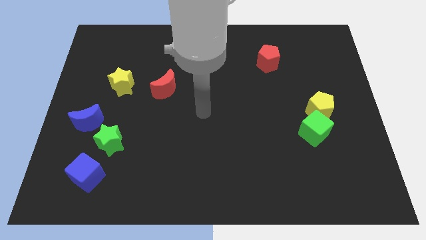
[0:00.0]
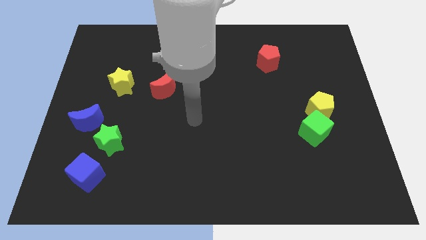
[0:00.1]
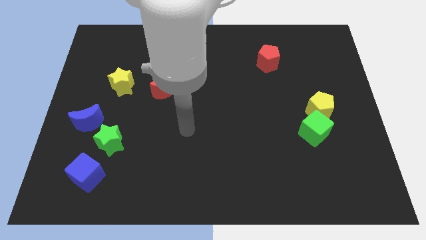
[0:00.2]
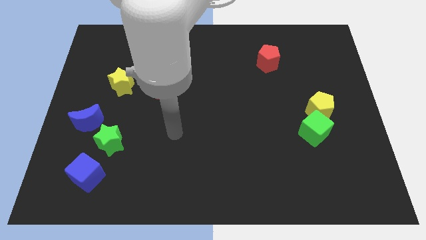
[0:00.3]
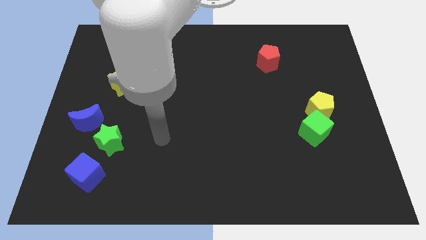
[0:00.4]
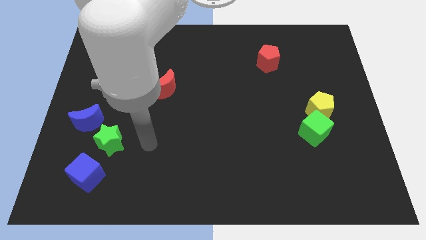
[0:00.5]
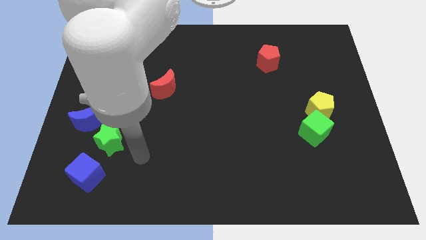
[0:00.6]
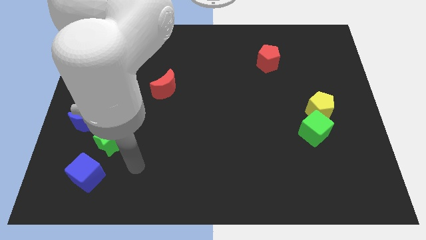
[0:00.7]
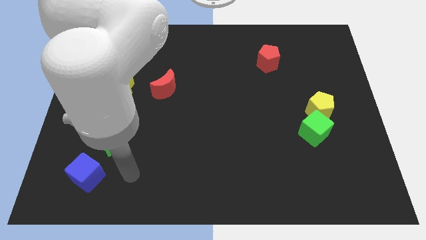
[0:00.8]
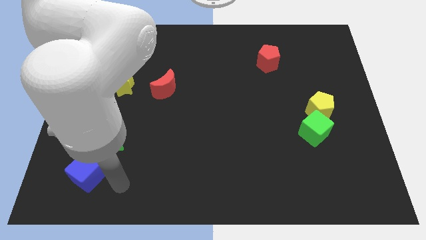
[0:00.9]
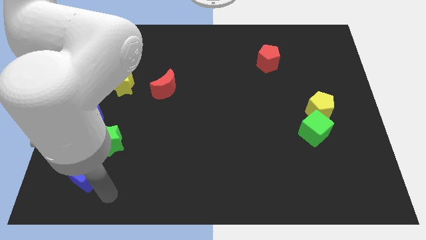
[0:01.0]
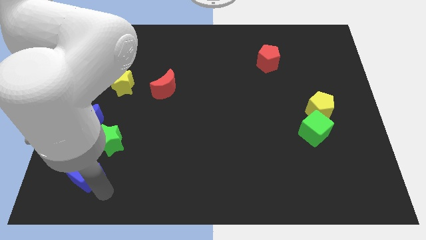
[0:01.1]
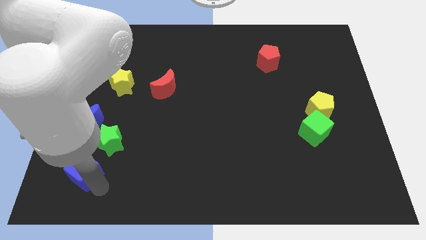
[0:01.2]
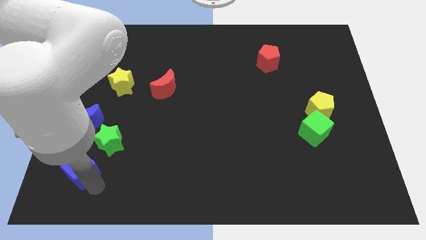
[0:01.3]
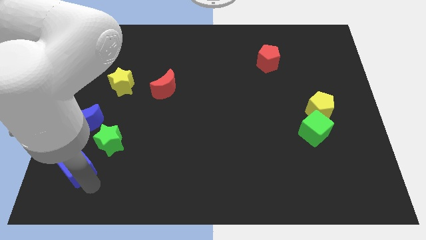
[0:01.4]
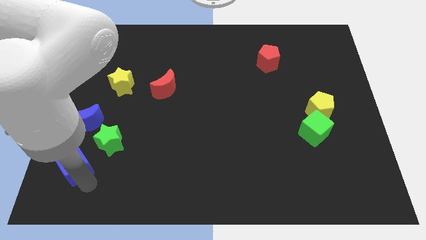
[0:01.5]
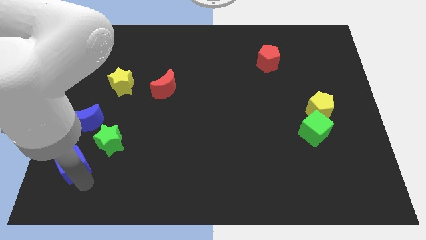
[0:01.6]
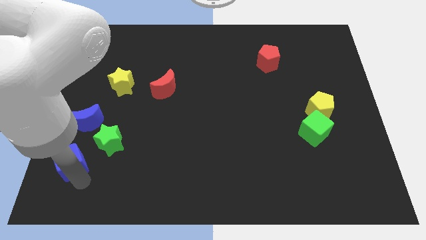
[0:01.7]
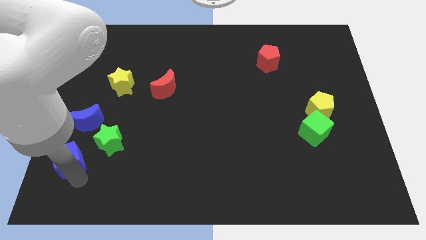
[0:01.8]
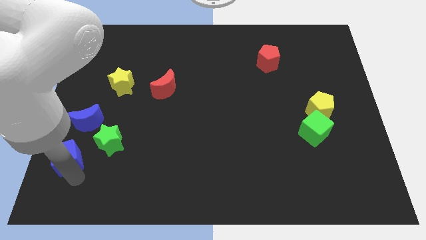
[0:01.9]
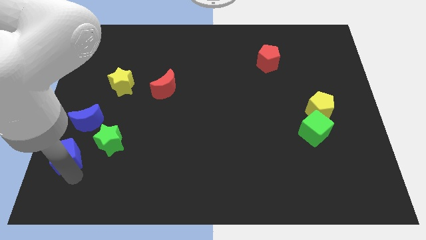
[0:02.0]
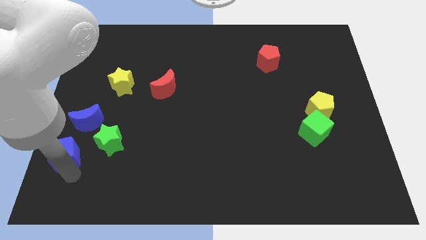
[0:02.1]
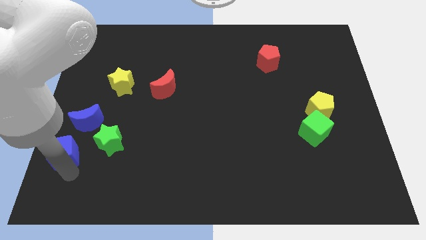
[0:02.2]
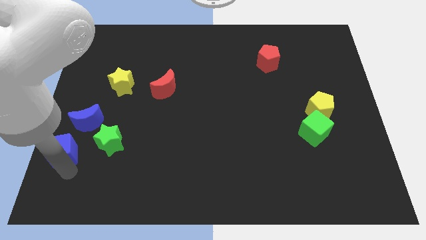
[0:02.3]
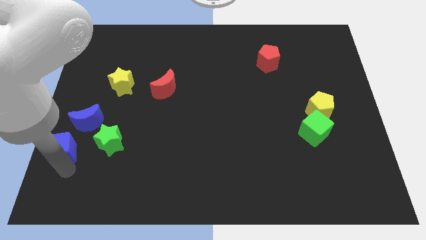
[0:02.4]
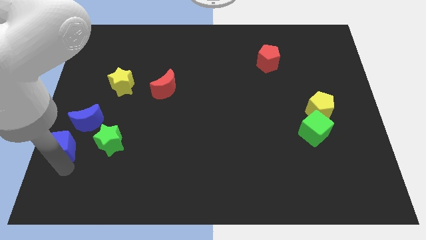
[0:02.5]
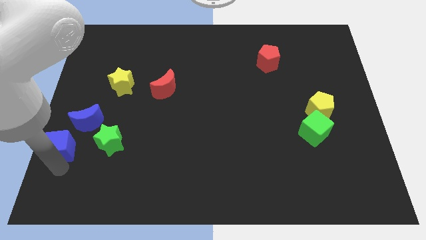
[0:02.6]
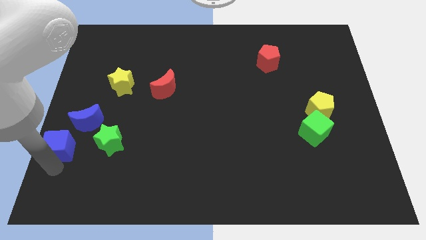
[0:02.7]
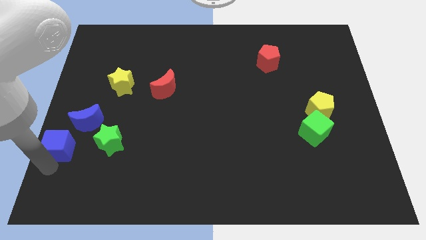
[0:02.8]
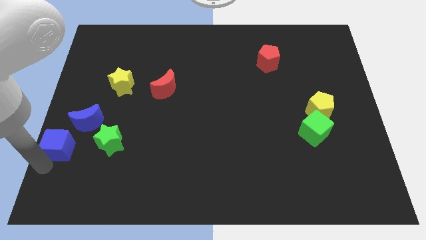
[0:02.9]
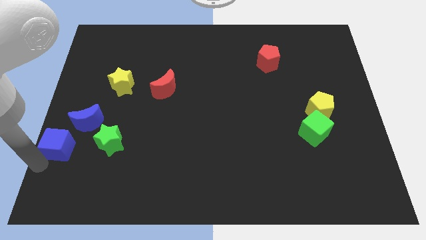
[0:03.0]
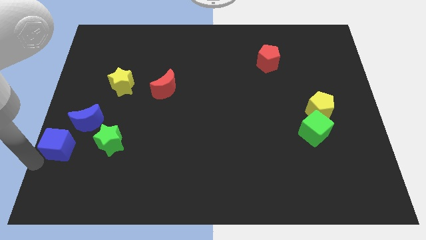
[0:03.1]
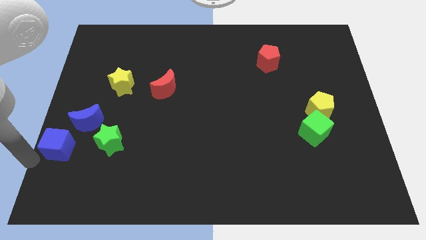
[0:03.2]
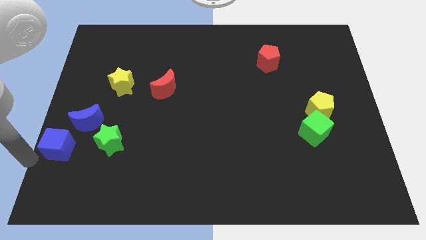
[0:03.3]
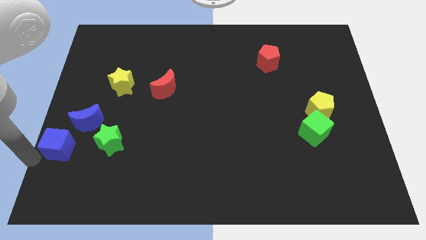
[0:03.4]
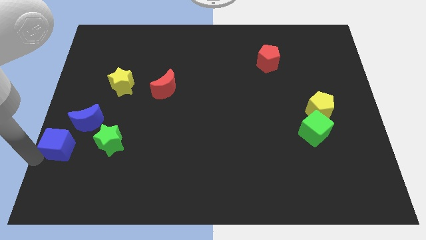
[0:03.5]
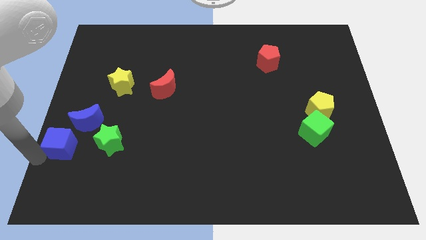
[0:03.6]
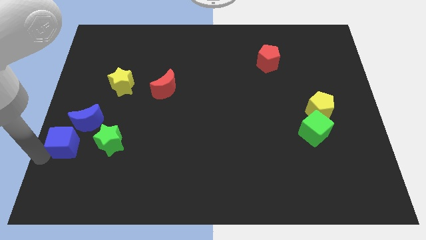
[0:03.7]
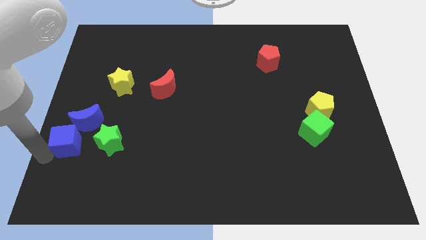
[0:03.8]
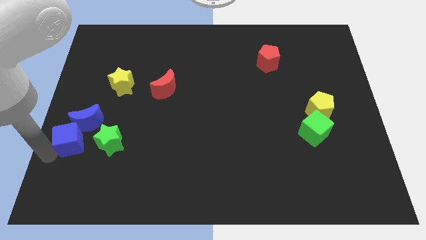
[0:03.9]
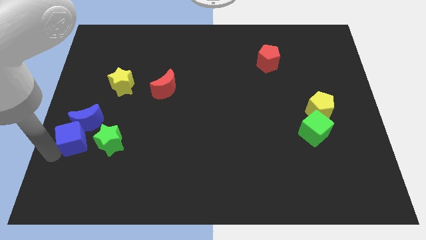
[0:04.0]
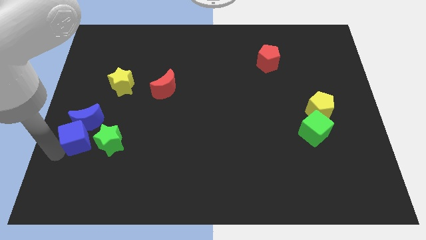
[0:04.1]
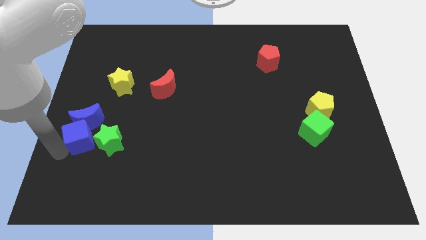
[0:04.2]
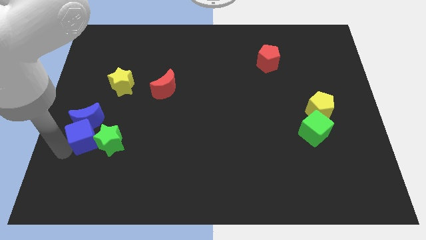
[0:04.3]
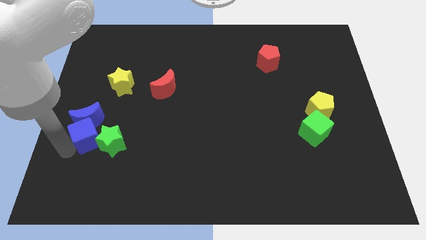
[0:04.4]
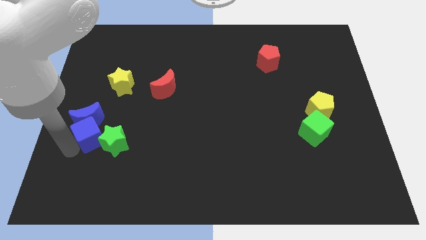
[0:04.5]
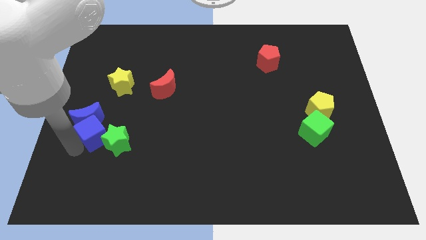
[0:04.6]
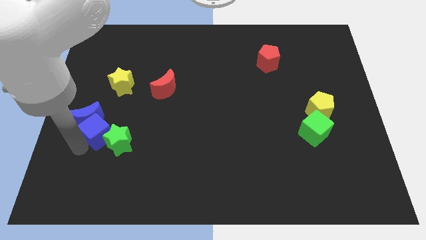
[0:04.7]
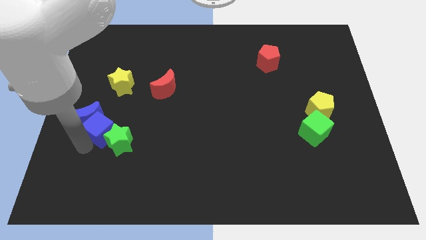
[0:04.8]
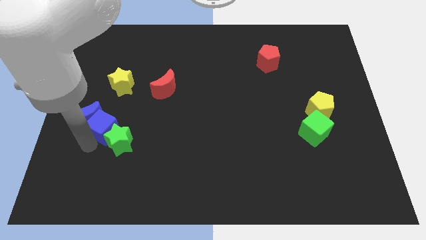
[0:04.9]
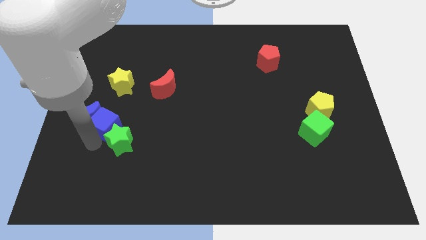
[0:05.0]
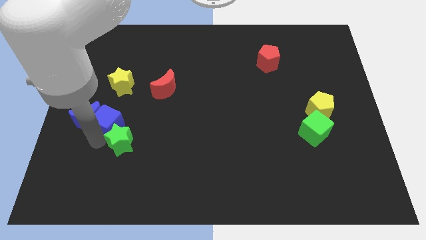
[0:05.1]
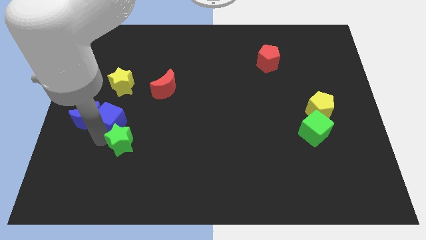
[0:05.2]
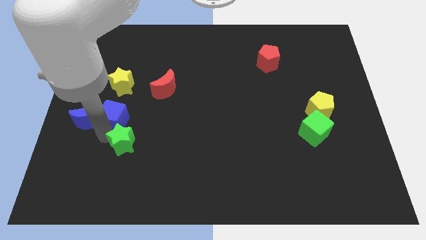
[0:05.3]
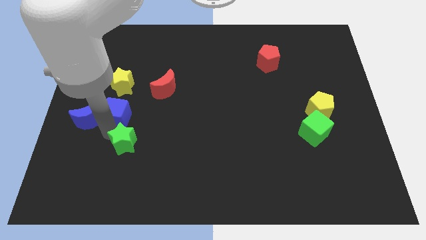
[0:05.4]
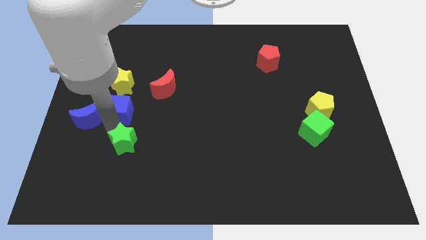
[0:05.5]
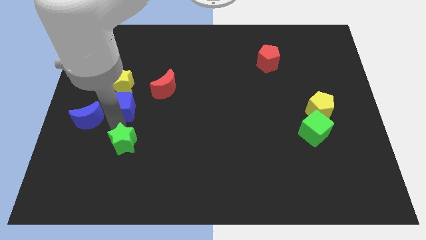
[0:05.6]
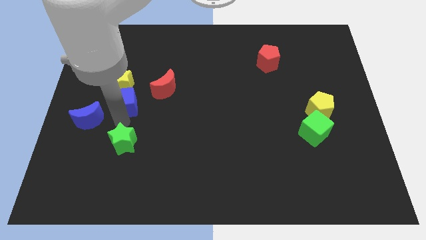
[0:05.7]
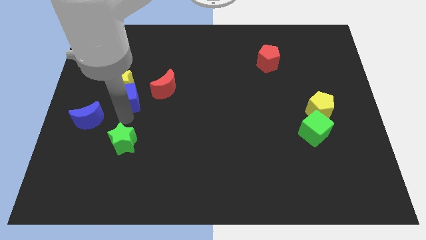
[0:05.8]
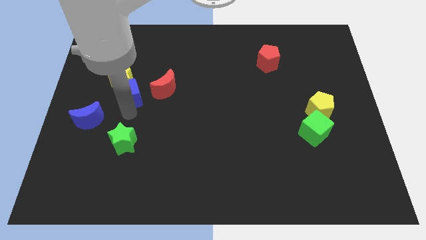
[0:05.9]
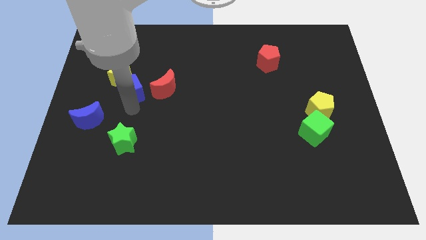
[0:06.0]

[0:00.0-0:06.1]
slide the blue cube up

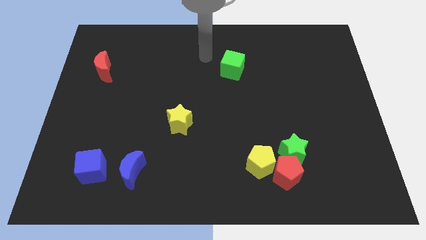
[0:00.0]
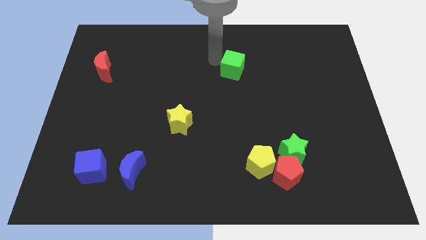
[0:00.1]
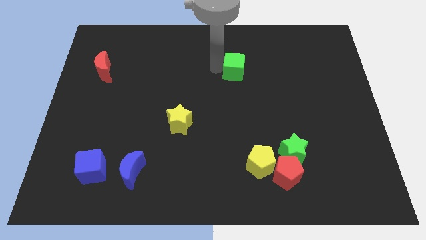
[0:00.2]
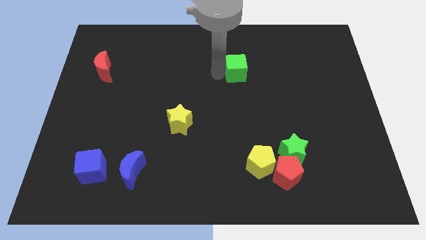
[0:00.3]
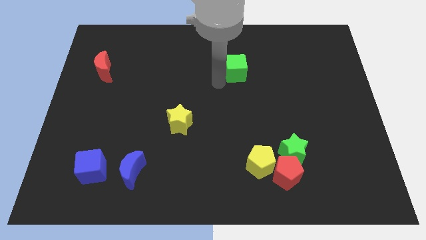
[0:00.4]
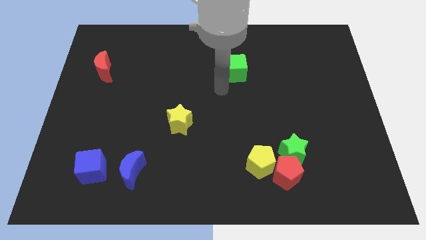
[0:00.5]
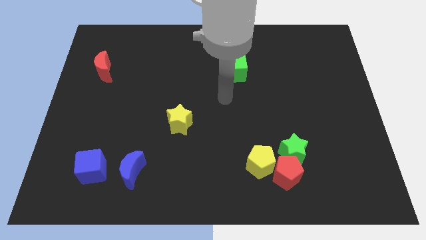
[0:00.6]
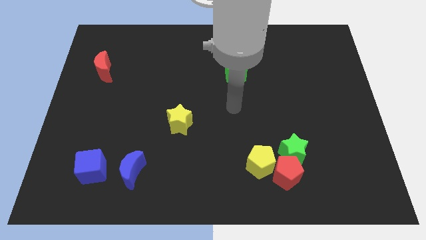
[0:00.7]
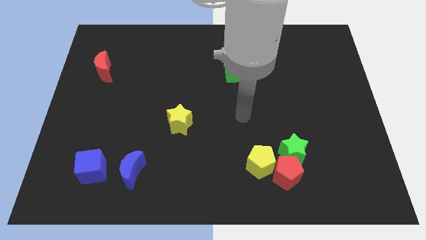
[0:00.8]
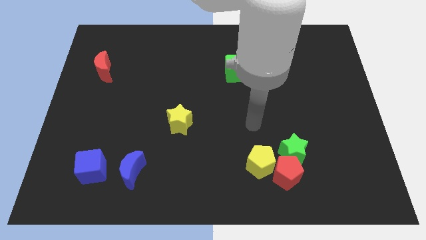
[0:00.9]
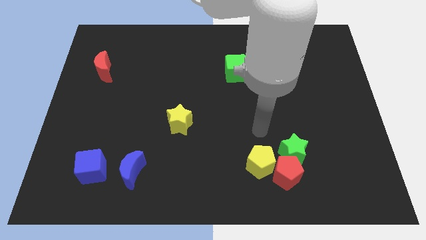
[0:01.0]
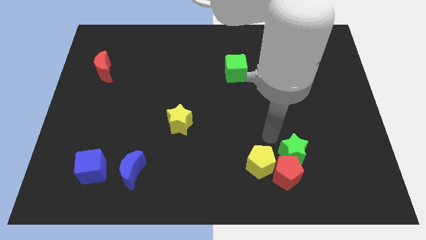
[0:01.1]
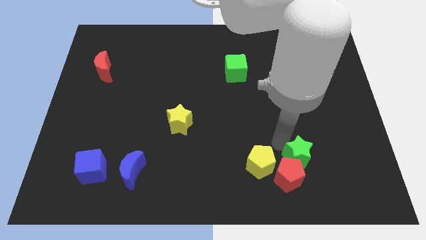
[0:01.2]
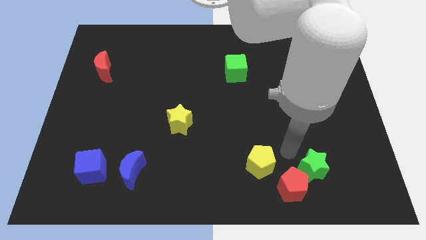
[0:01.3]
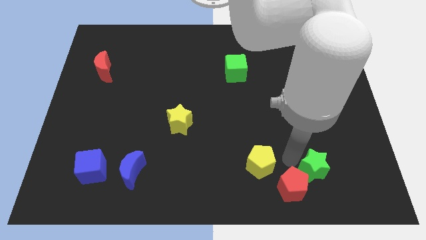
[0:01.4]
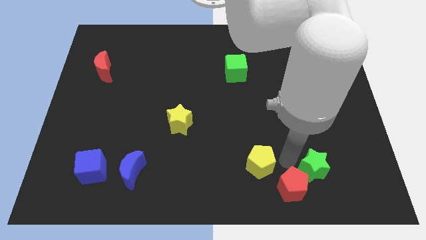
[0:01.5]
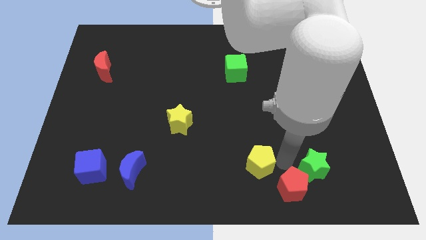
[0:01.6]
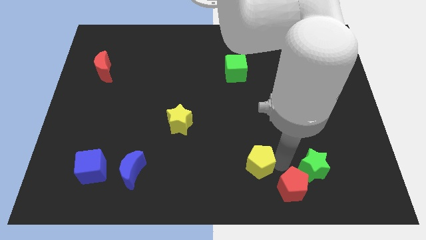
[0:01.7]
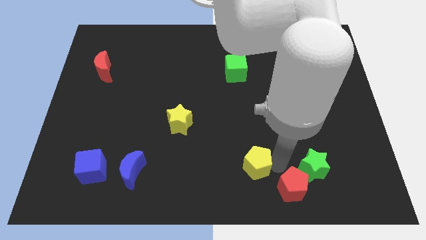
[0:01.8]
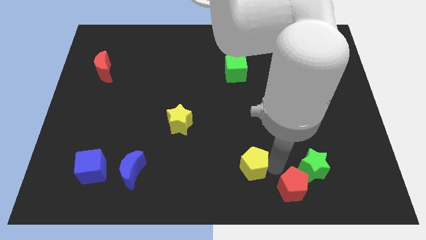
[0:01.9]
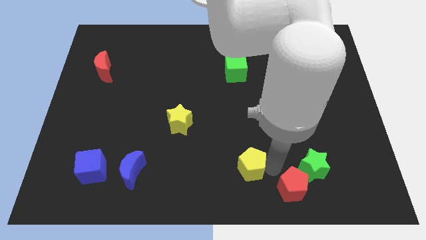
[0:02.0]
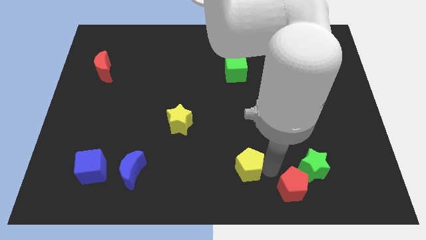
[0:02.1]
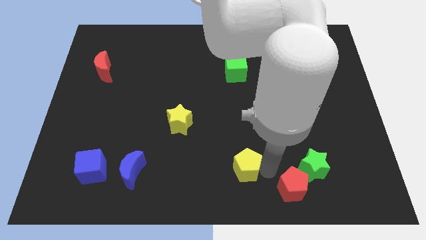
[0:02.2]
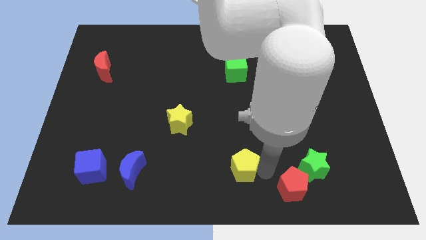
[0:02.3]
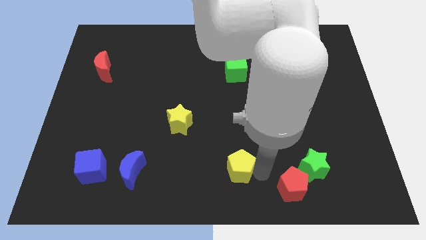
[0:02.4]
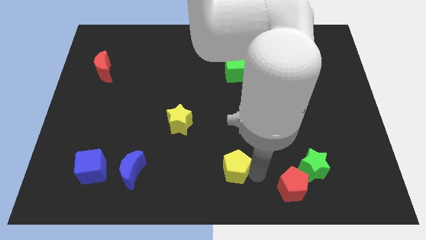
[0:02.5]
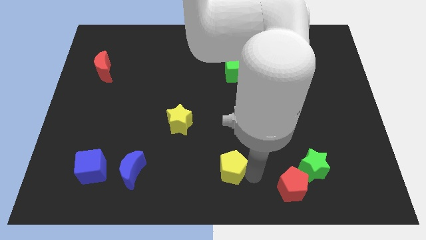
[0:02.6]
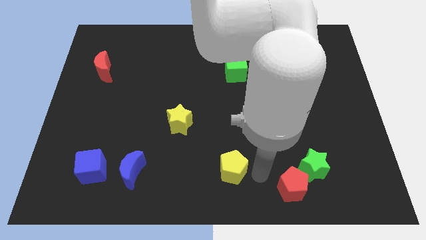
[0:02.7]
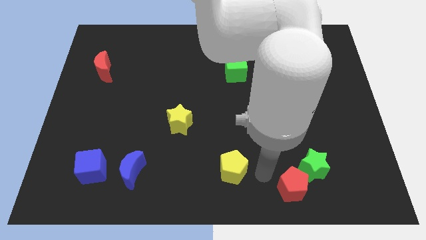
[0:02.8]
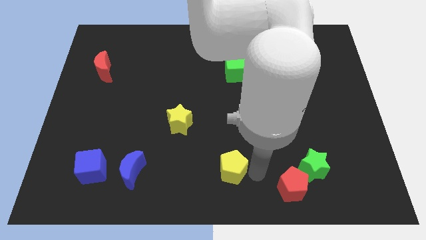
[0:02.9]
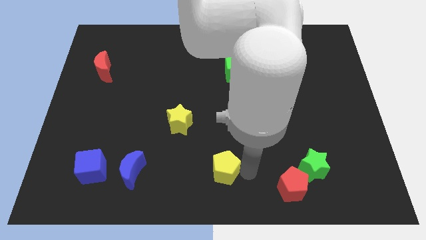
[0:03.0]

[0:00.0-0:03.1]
move the yellow pentagon a bit to the left
